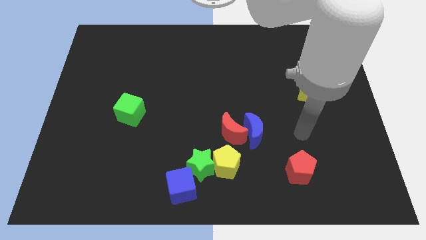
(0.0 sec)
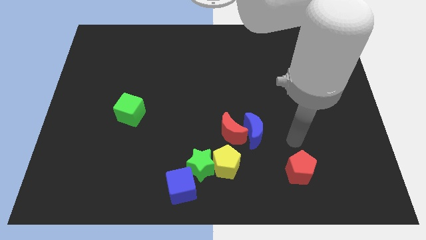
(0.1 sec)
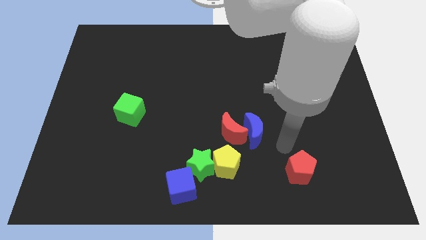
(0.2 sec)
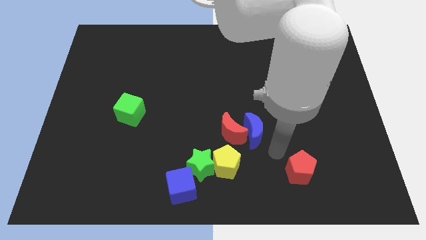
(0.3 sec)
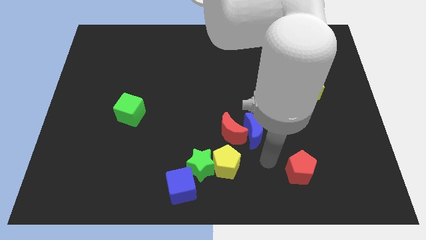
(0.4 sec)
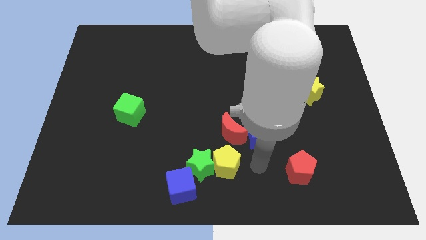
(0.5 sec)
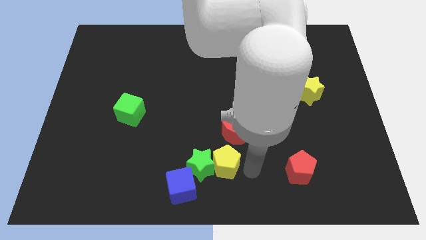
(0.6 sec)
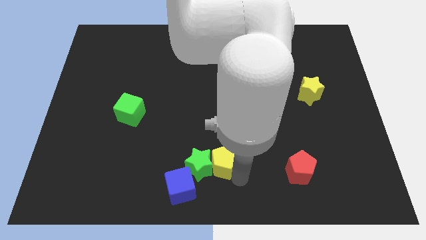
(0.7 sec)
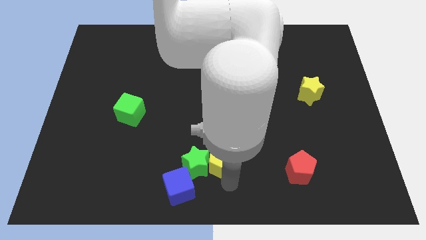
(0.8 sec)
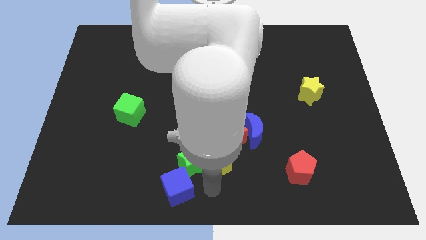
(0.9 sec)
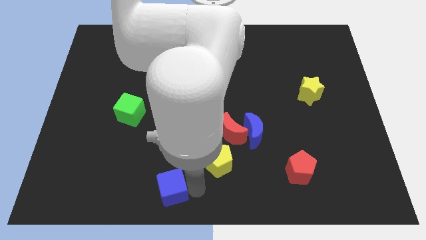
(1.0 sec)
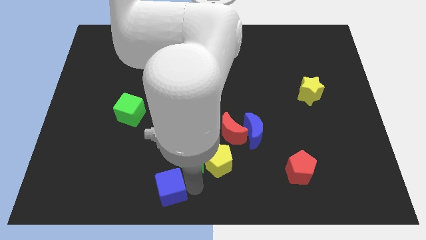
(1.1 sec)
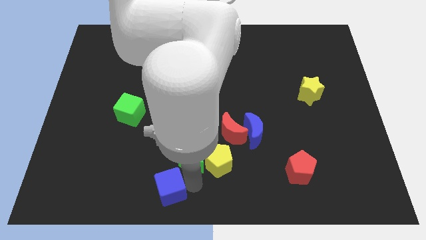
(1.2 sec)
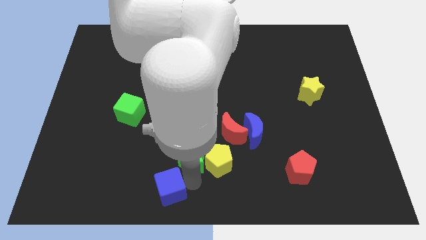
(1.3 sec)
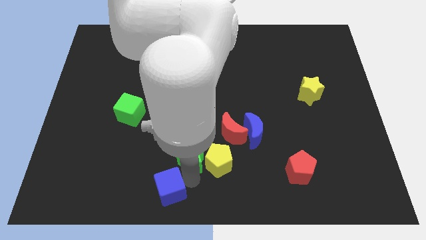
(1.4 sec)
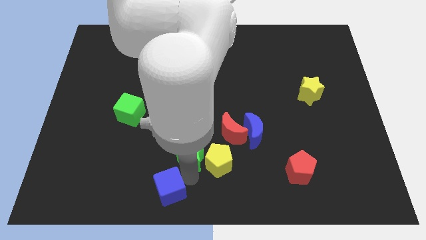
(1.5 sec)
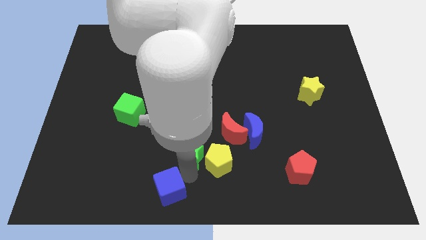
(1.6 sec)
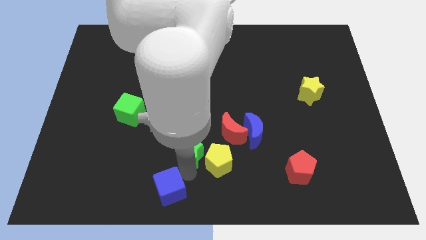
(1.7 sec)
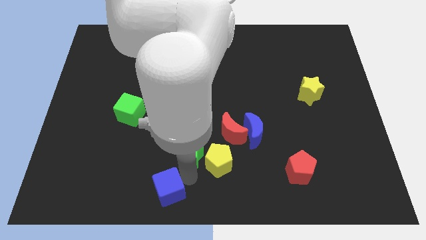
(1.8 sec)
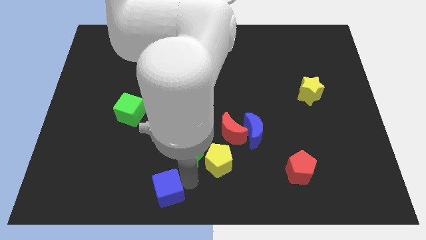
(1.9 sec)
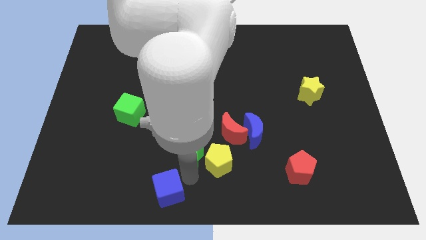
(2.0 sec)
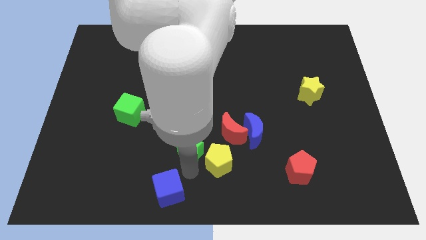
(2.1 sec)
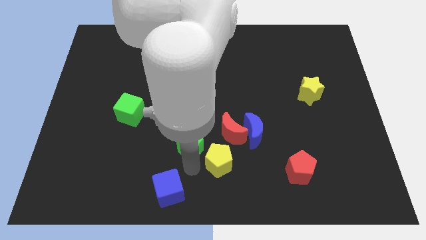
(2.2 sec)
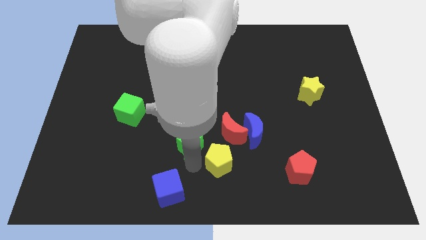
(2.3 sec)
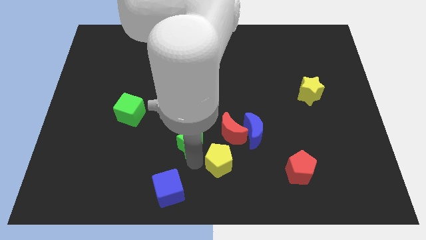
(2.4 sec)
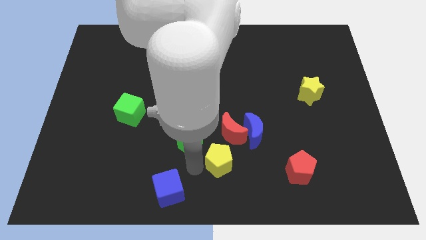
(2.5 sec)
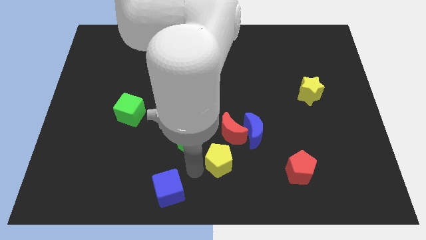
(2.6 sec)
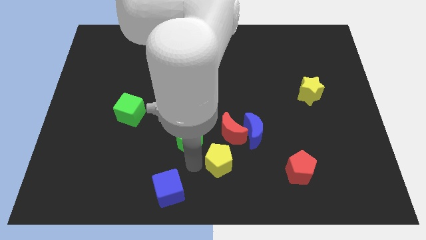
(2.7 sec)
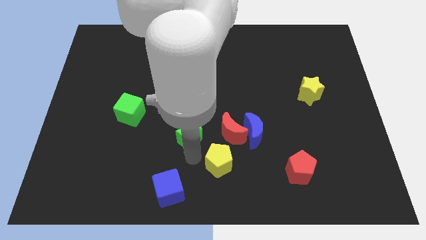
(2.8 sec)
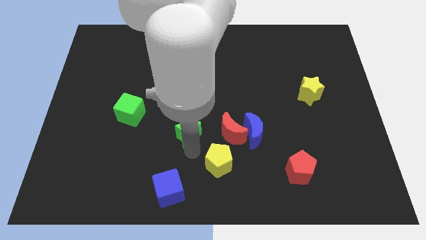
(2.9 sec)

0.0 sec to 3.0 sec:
pull the green star apart from the yellow pentagon and blue cube

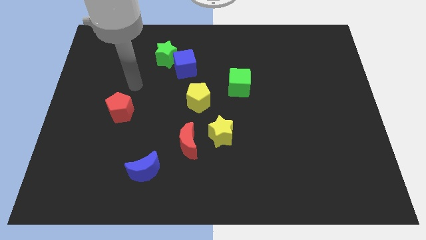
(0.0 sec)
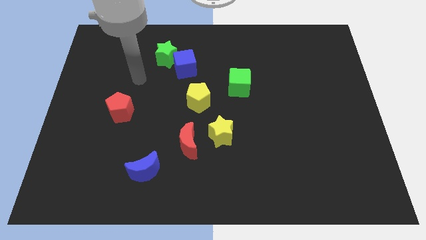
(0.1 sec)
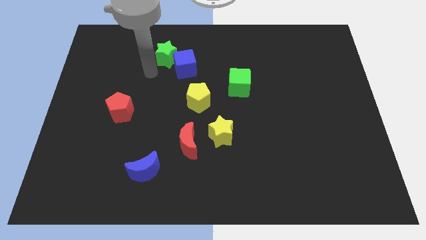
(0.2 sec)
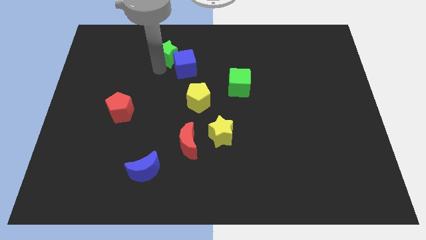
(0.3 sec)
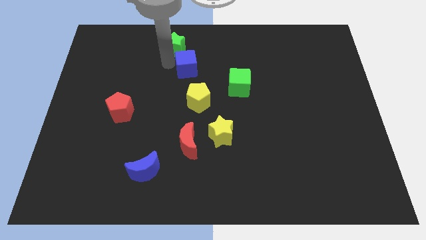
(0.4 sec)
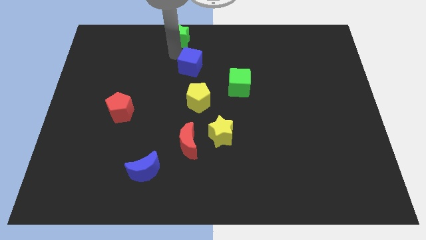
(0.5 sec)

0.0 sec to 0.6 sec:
separate the blue cube from the green star

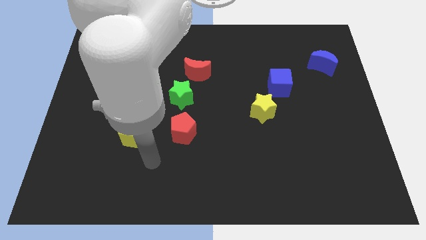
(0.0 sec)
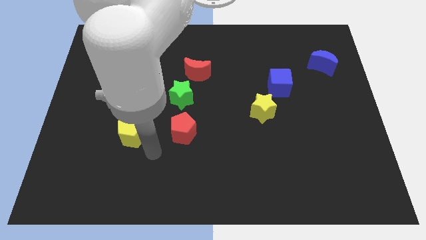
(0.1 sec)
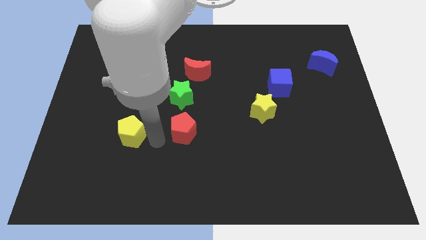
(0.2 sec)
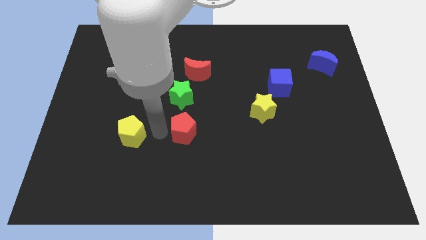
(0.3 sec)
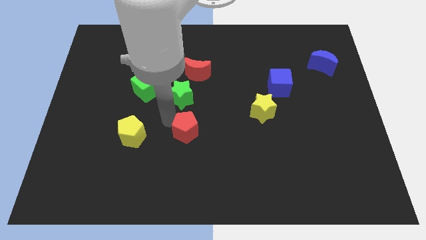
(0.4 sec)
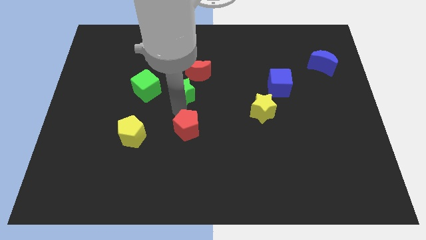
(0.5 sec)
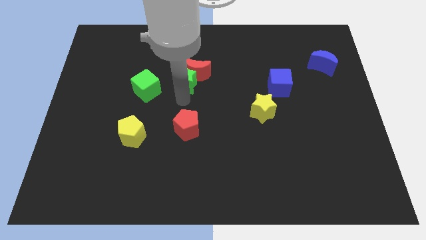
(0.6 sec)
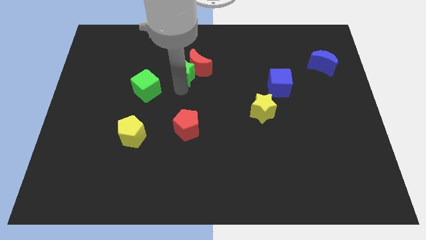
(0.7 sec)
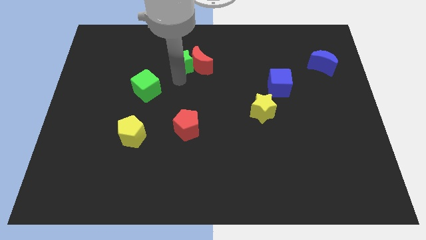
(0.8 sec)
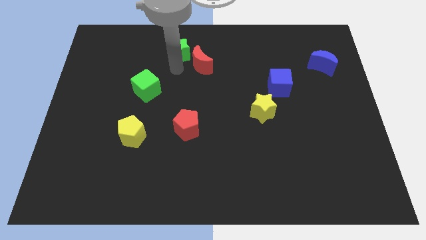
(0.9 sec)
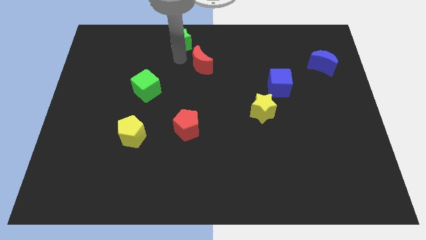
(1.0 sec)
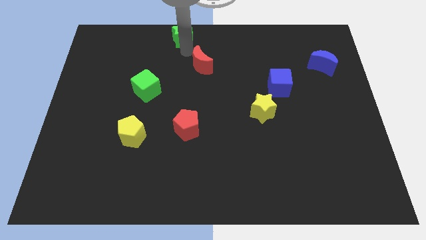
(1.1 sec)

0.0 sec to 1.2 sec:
pull the red moon apart from the green star

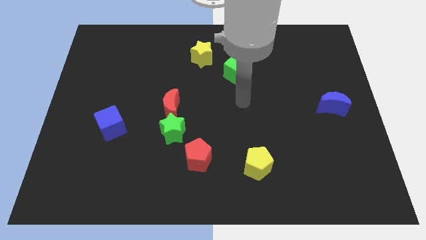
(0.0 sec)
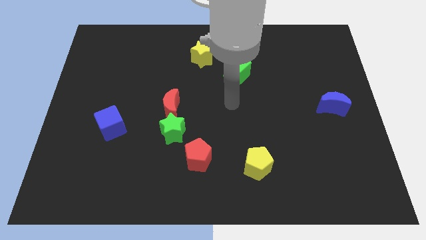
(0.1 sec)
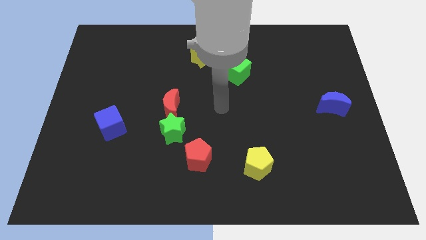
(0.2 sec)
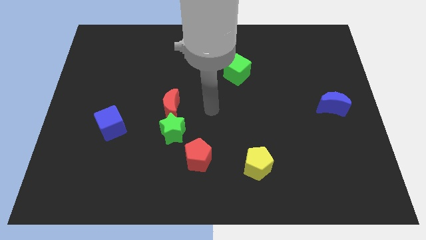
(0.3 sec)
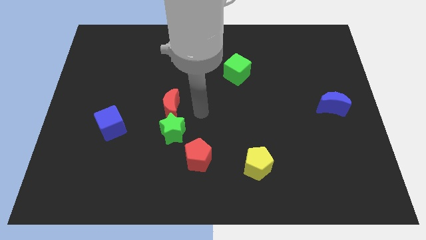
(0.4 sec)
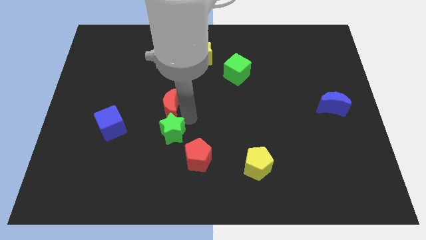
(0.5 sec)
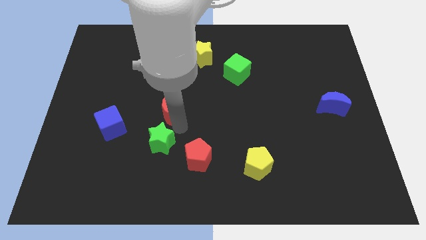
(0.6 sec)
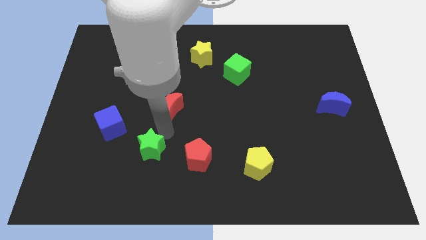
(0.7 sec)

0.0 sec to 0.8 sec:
move the red moon away from the green star

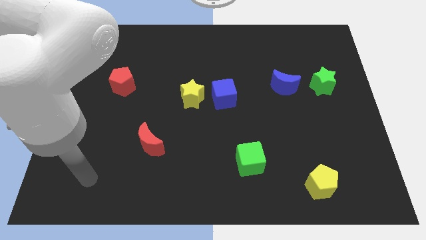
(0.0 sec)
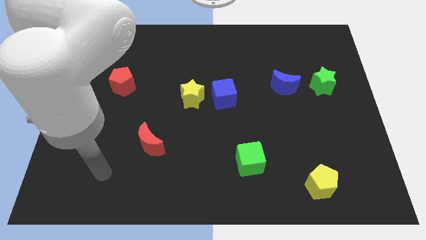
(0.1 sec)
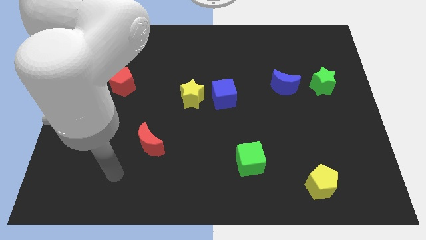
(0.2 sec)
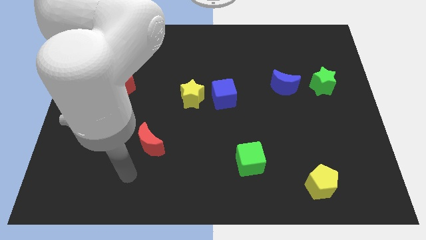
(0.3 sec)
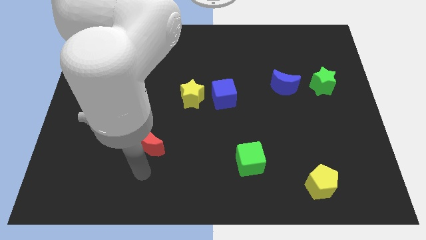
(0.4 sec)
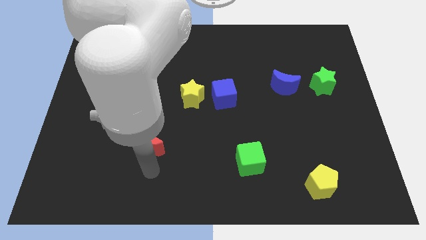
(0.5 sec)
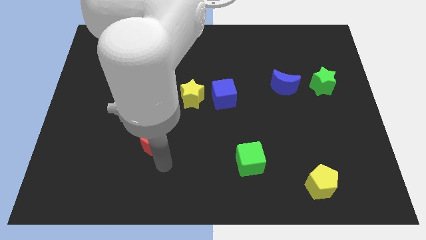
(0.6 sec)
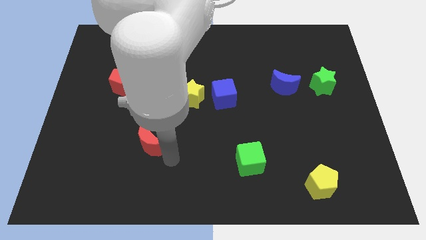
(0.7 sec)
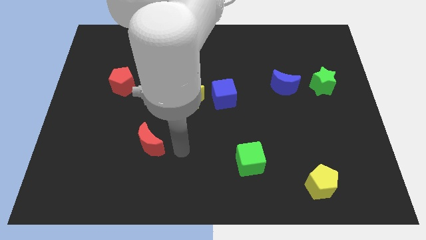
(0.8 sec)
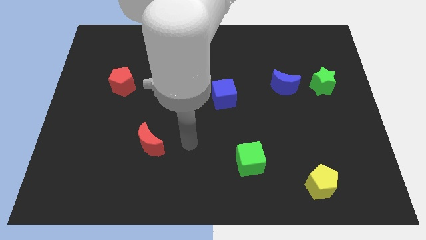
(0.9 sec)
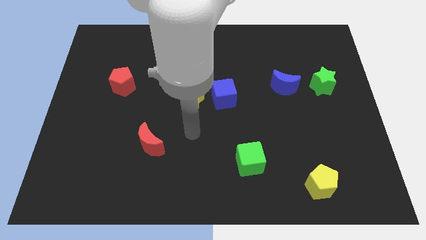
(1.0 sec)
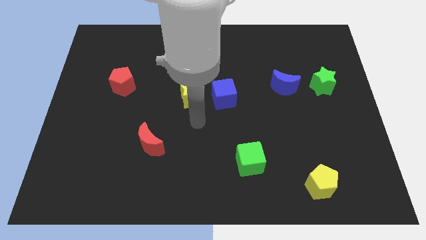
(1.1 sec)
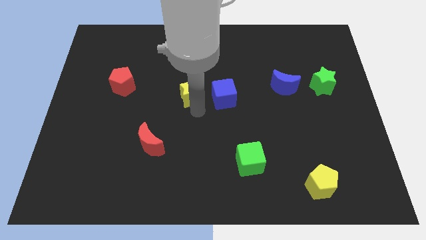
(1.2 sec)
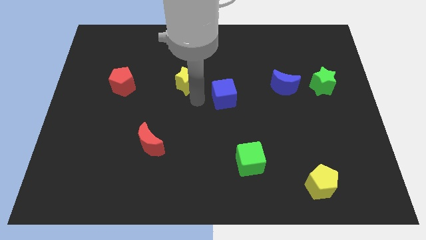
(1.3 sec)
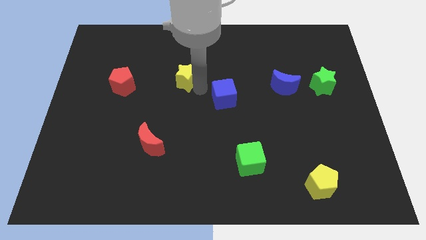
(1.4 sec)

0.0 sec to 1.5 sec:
separate the blue cube from the yellow star

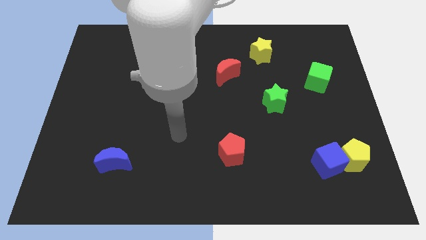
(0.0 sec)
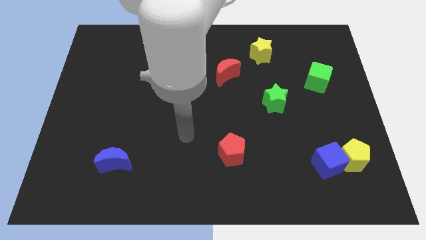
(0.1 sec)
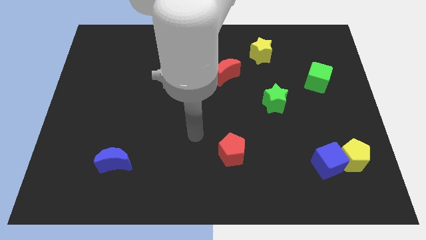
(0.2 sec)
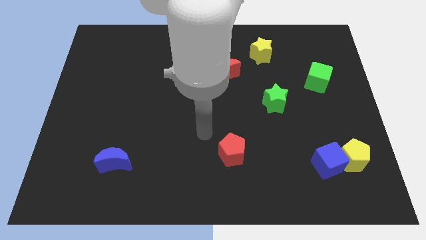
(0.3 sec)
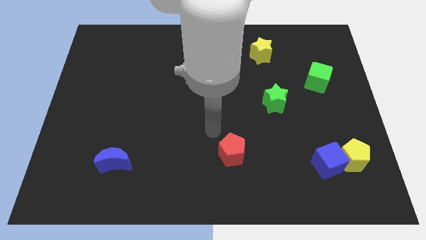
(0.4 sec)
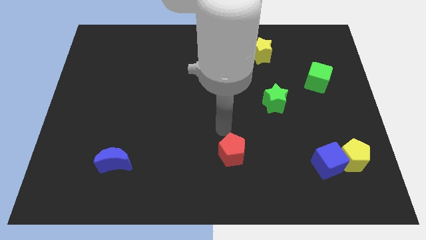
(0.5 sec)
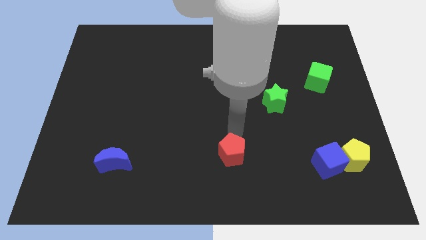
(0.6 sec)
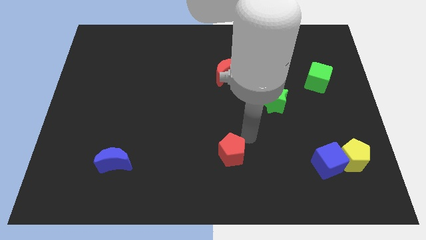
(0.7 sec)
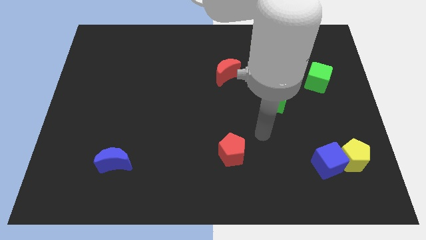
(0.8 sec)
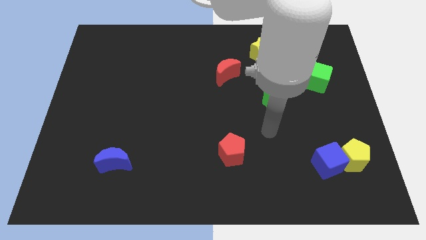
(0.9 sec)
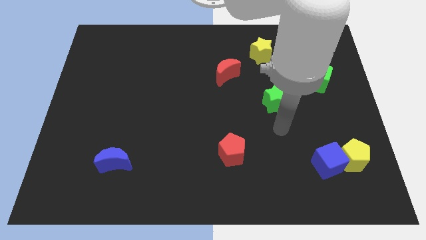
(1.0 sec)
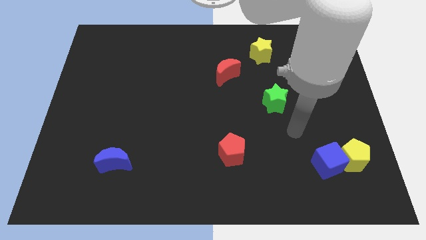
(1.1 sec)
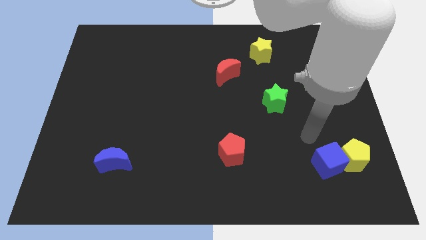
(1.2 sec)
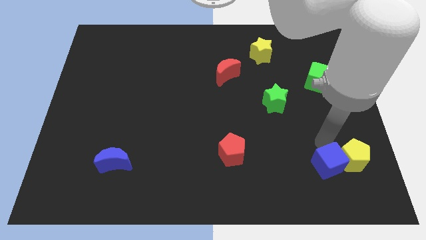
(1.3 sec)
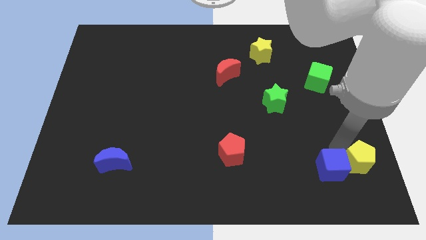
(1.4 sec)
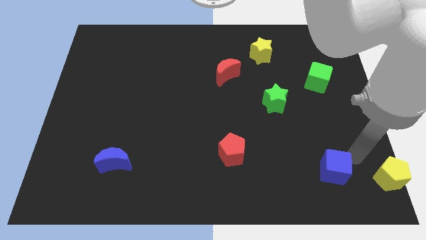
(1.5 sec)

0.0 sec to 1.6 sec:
separate the blue cube from the yellow pentagon

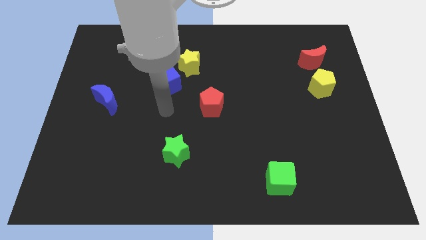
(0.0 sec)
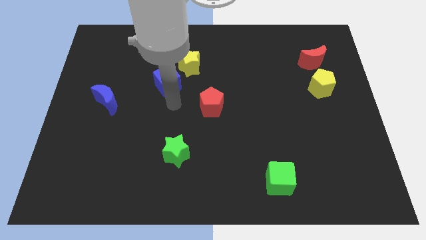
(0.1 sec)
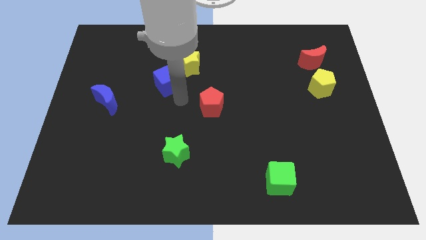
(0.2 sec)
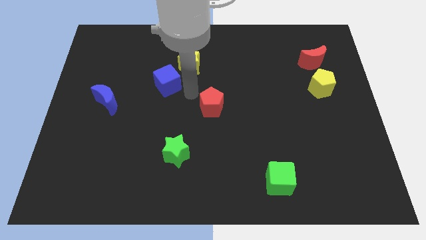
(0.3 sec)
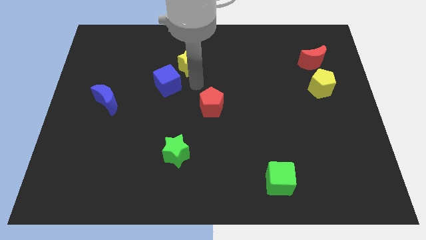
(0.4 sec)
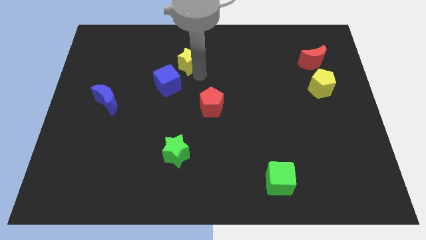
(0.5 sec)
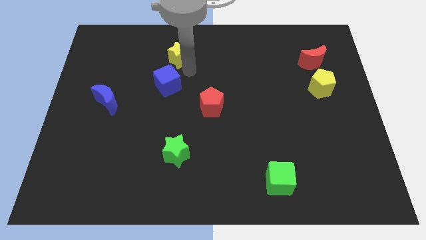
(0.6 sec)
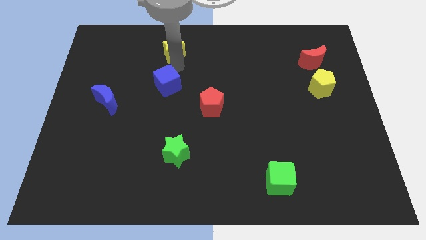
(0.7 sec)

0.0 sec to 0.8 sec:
move the blue cube away from the yellow star
